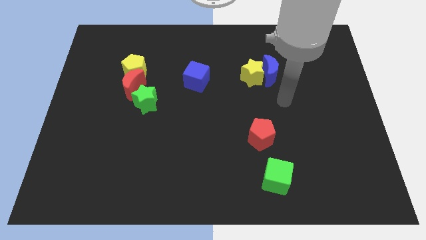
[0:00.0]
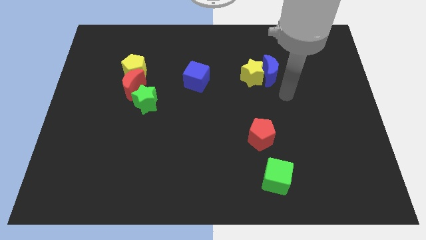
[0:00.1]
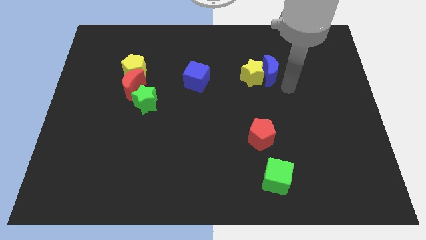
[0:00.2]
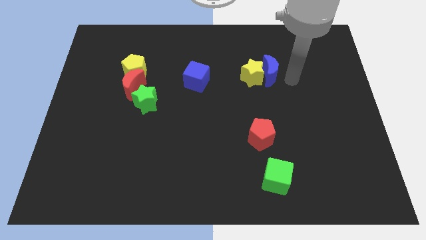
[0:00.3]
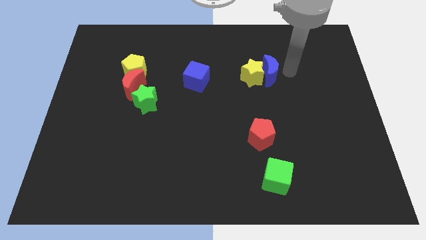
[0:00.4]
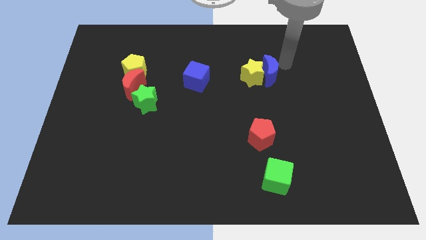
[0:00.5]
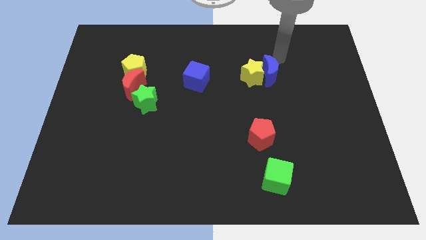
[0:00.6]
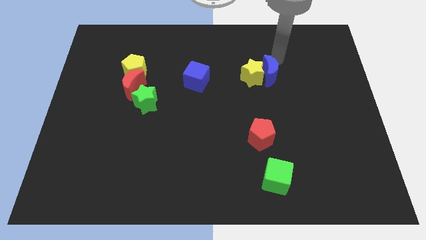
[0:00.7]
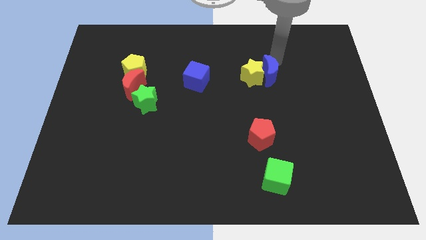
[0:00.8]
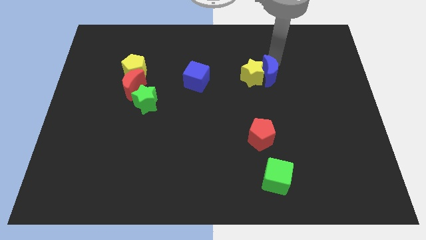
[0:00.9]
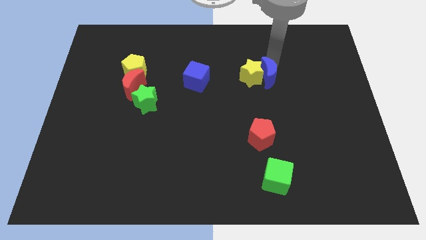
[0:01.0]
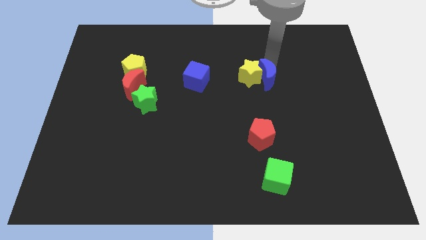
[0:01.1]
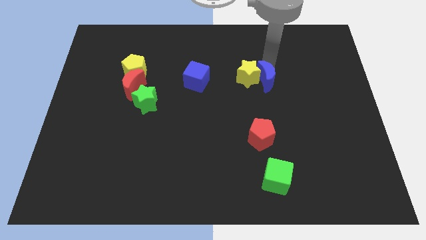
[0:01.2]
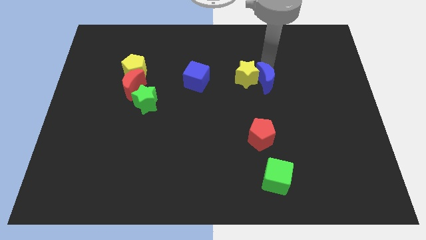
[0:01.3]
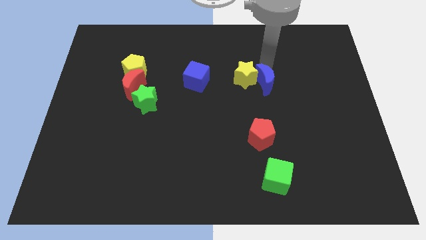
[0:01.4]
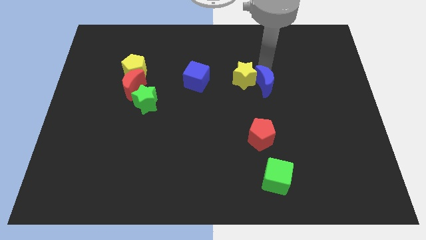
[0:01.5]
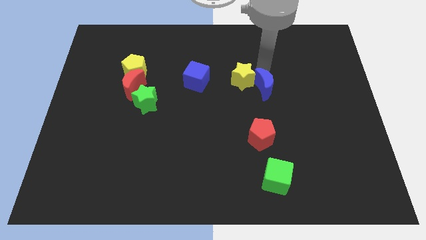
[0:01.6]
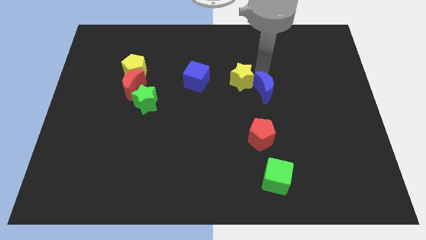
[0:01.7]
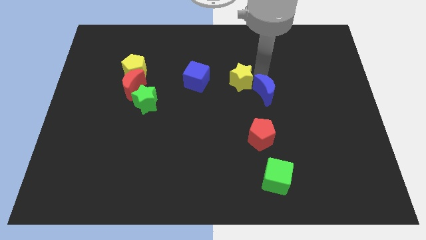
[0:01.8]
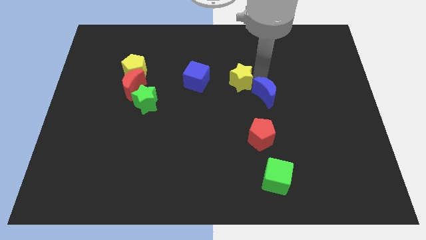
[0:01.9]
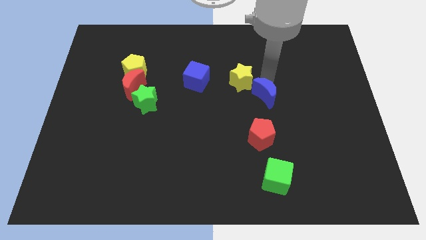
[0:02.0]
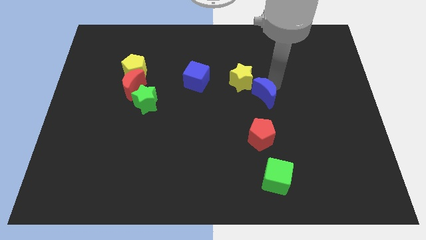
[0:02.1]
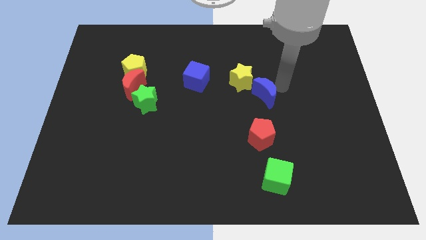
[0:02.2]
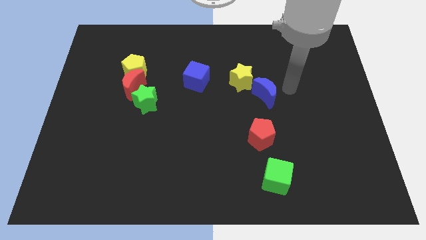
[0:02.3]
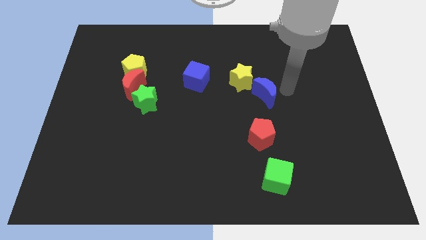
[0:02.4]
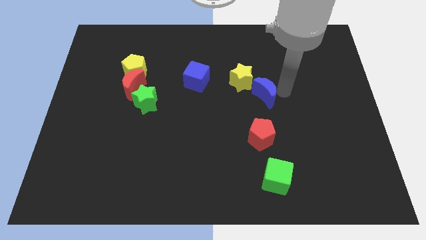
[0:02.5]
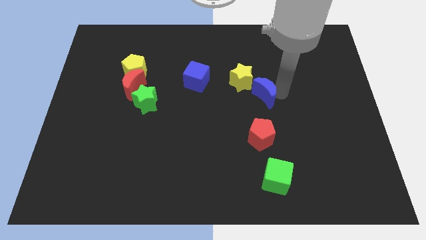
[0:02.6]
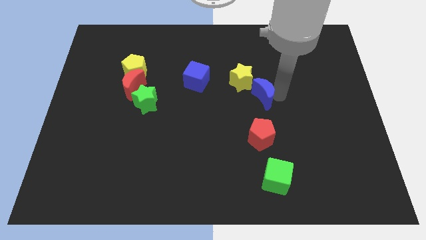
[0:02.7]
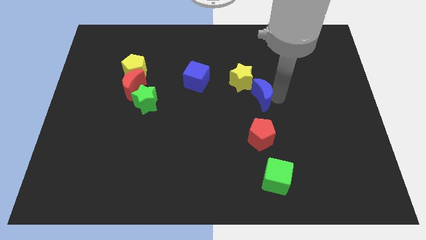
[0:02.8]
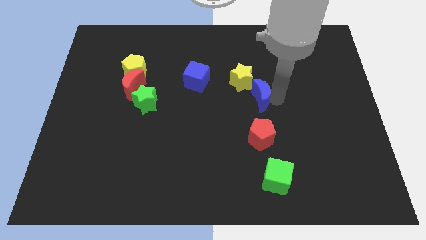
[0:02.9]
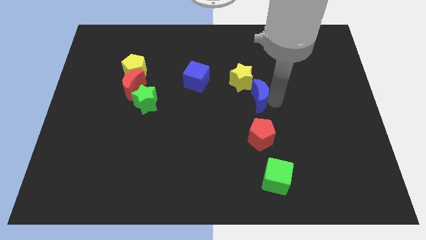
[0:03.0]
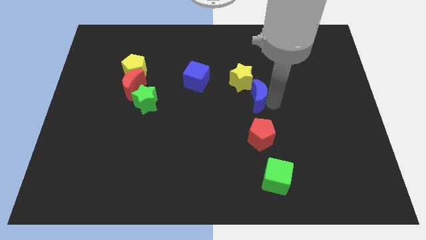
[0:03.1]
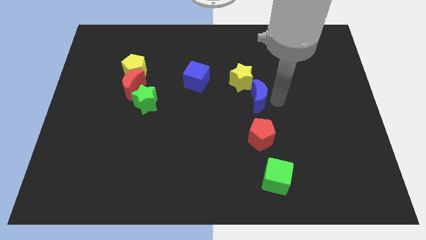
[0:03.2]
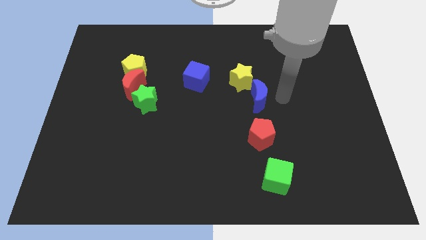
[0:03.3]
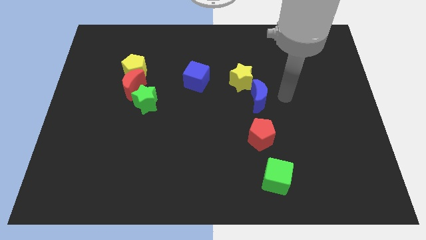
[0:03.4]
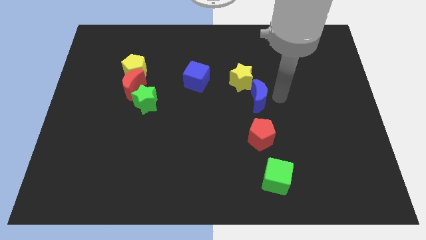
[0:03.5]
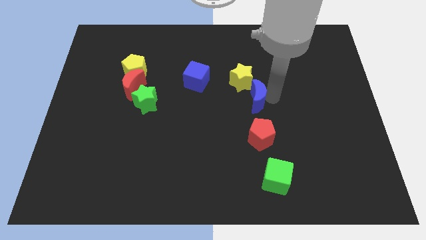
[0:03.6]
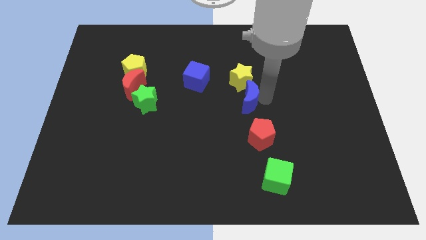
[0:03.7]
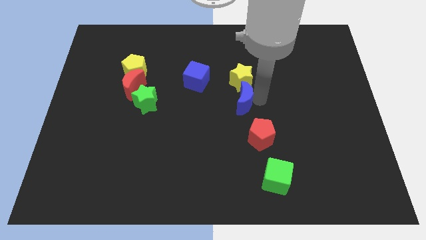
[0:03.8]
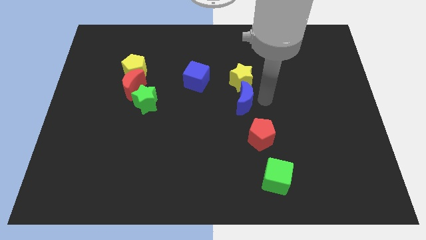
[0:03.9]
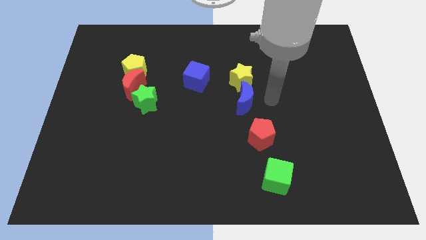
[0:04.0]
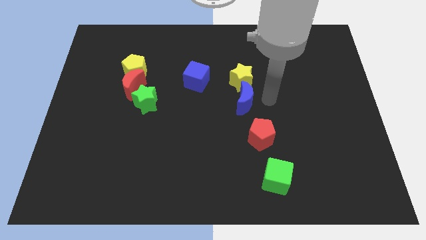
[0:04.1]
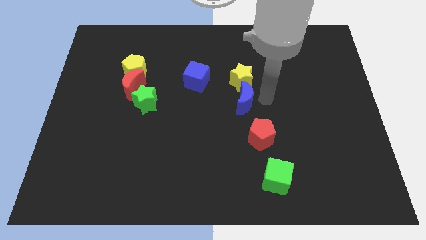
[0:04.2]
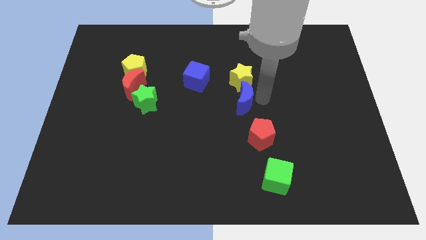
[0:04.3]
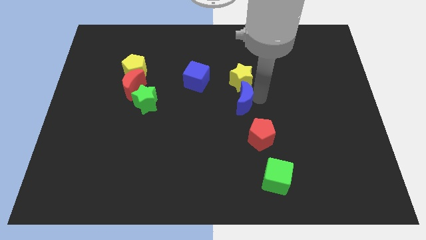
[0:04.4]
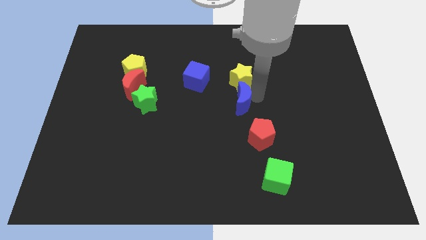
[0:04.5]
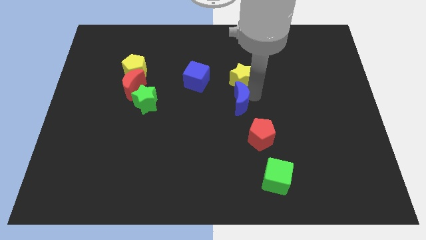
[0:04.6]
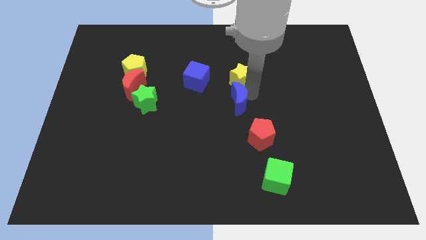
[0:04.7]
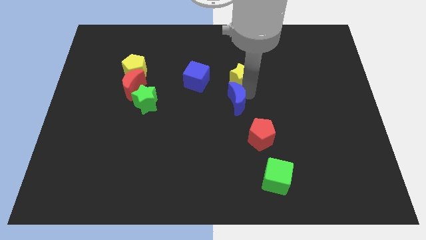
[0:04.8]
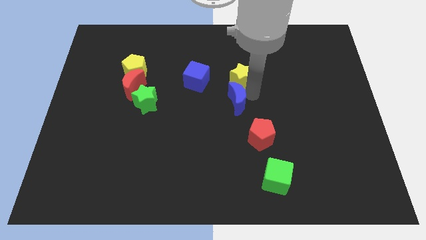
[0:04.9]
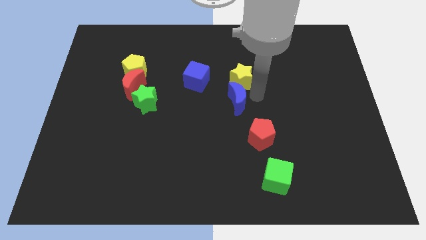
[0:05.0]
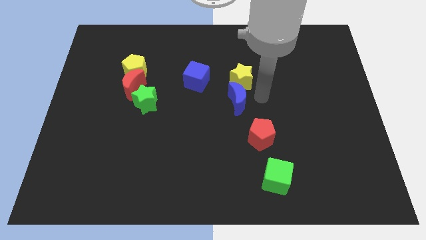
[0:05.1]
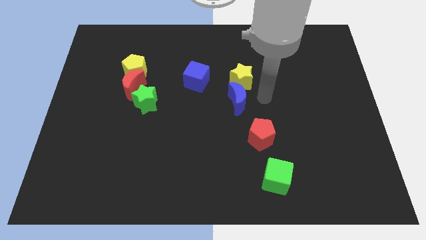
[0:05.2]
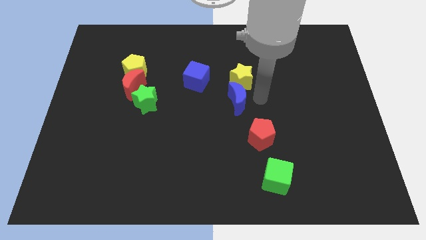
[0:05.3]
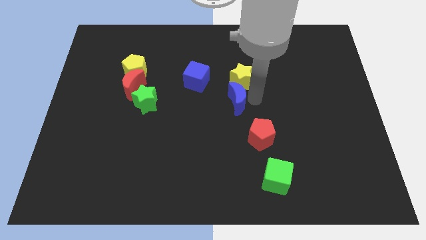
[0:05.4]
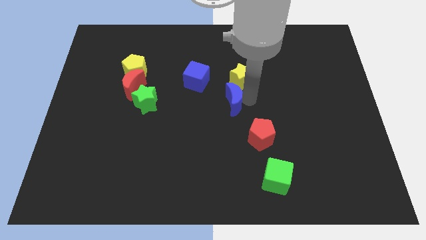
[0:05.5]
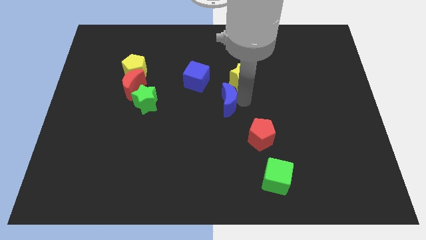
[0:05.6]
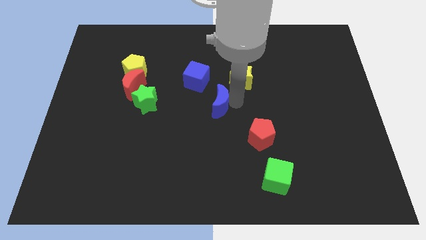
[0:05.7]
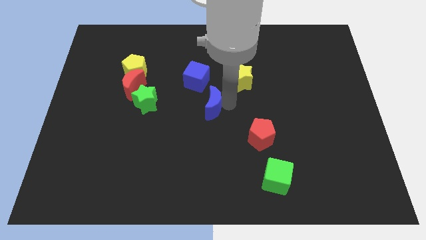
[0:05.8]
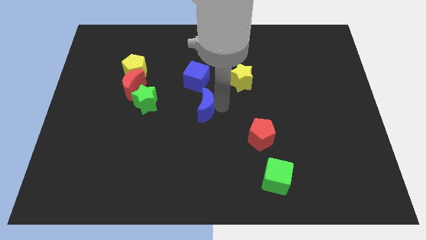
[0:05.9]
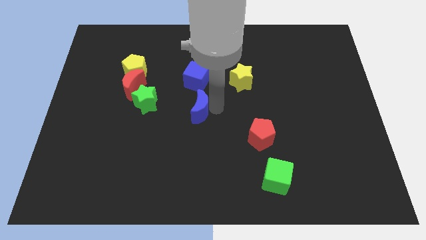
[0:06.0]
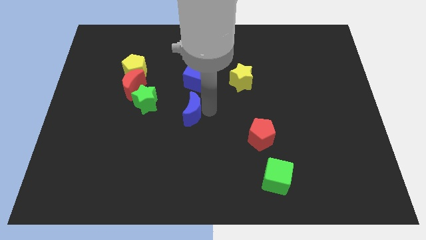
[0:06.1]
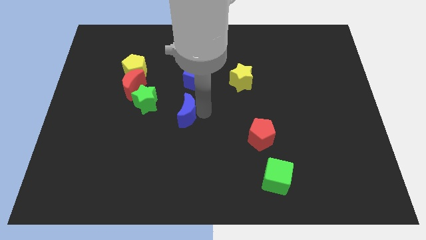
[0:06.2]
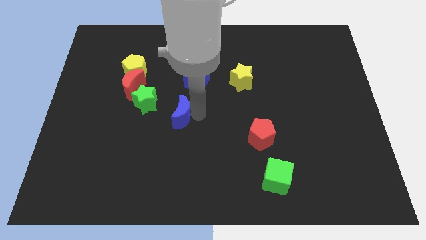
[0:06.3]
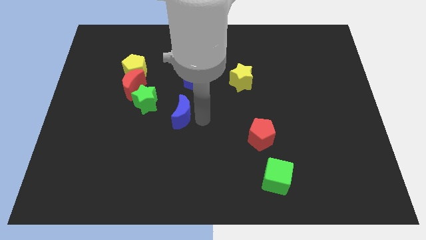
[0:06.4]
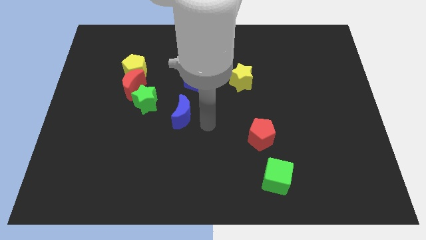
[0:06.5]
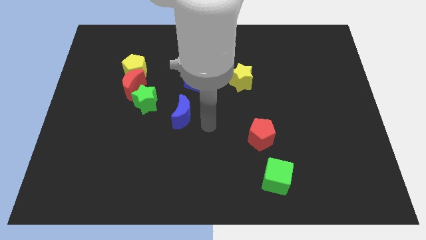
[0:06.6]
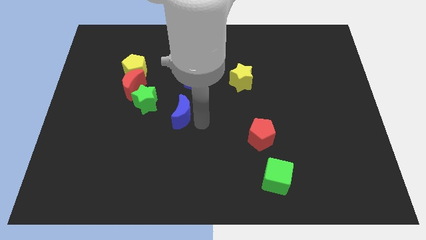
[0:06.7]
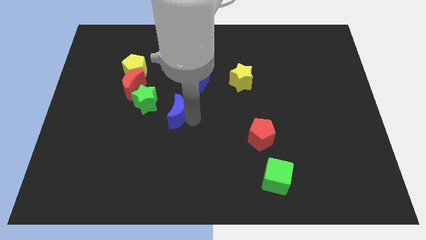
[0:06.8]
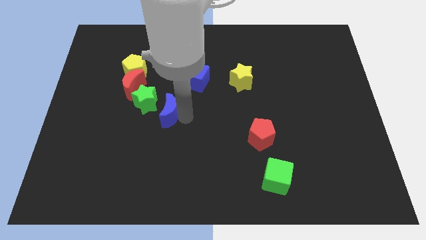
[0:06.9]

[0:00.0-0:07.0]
push the blue moon to the bottom right of the red moon
